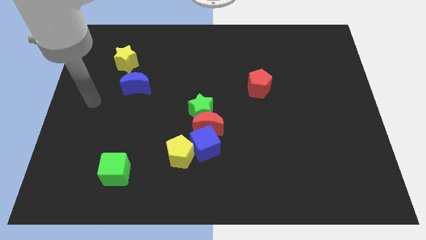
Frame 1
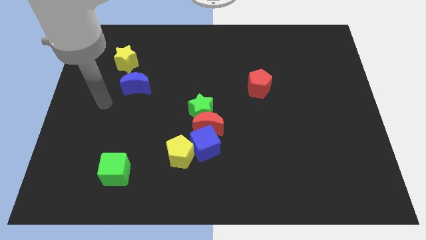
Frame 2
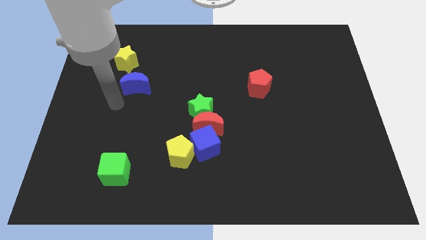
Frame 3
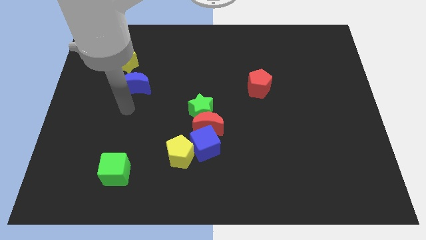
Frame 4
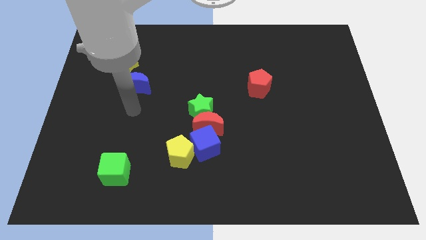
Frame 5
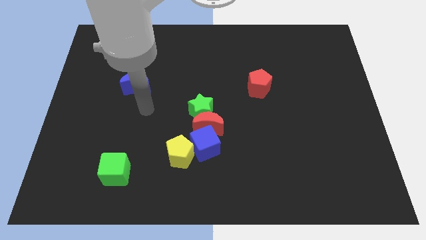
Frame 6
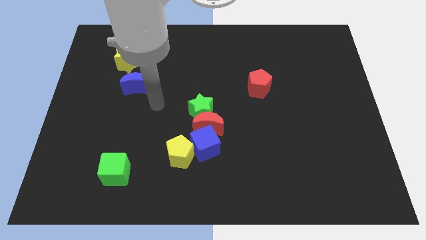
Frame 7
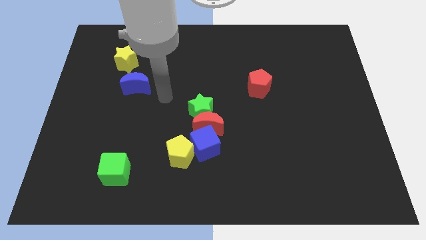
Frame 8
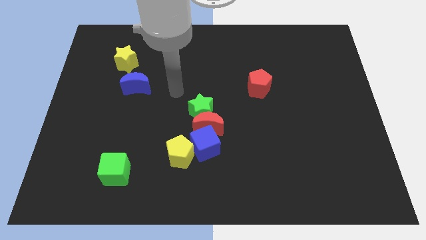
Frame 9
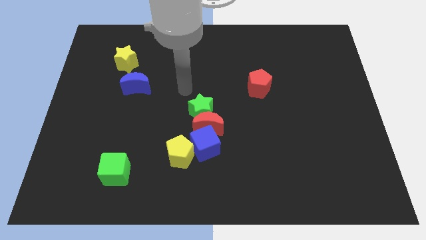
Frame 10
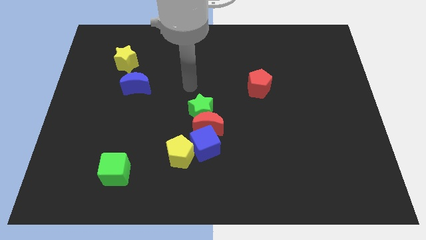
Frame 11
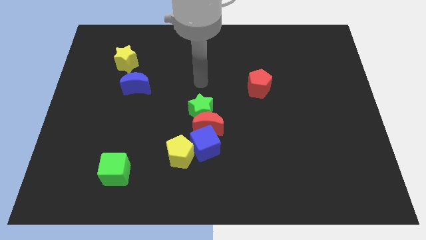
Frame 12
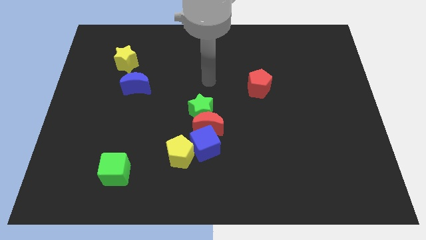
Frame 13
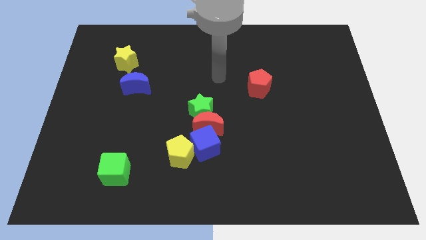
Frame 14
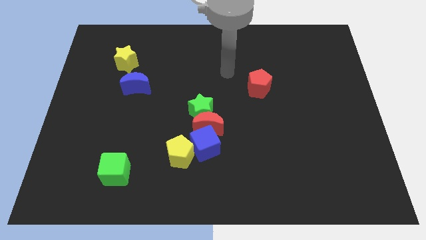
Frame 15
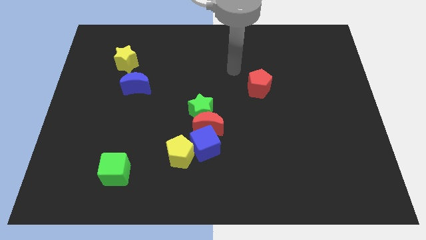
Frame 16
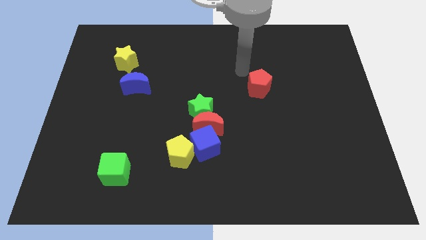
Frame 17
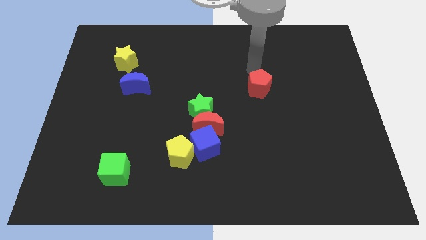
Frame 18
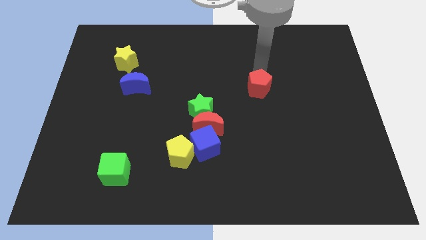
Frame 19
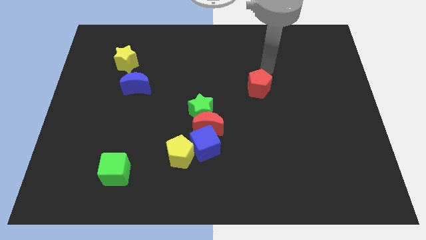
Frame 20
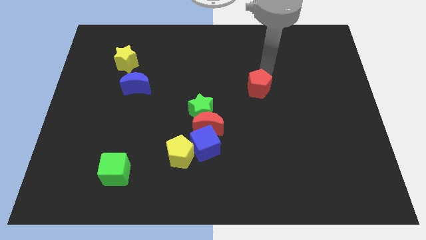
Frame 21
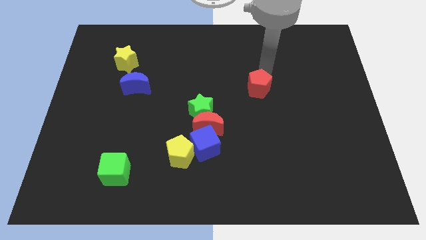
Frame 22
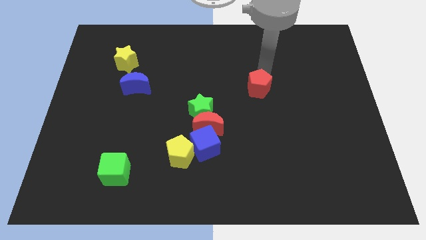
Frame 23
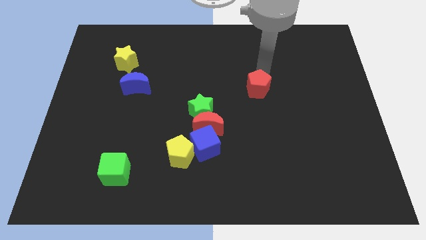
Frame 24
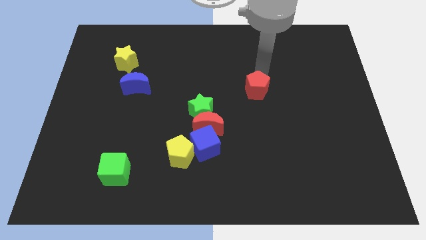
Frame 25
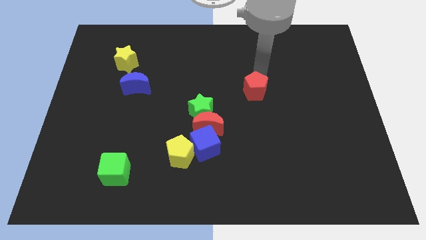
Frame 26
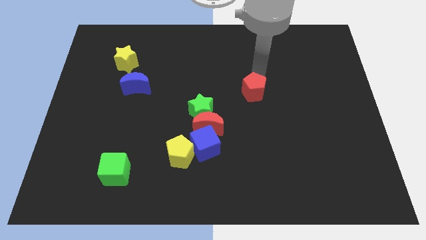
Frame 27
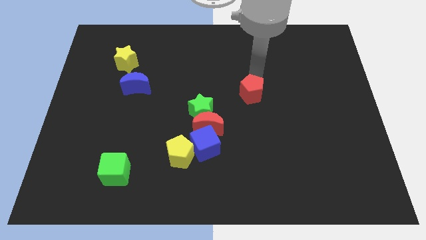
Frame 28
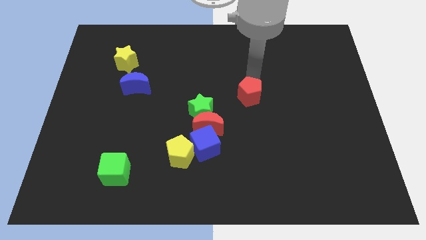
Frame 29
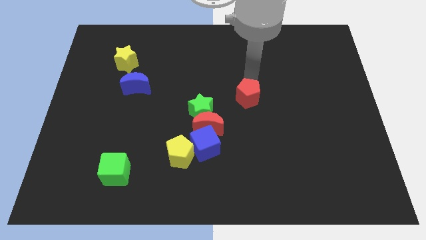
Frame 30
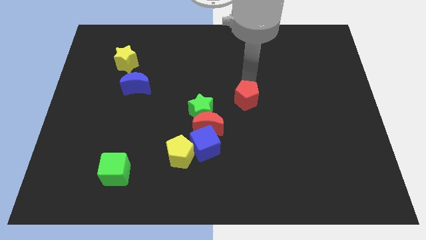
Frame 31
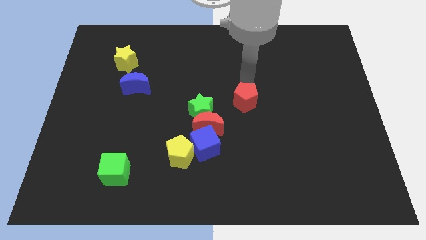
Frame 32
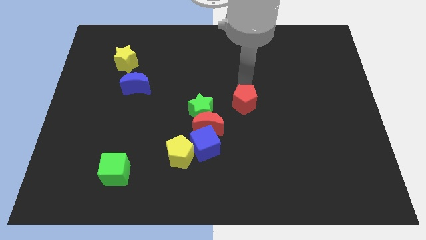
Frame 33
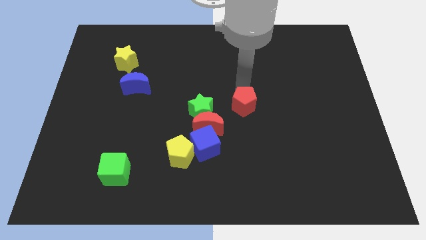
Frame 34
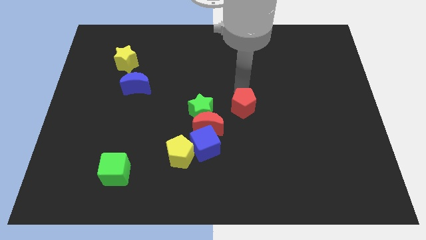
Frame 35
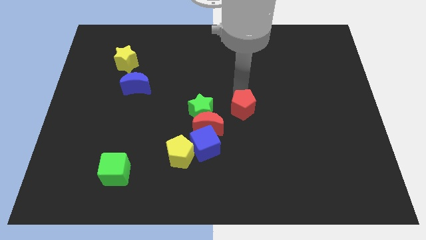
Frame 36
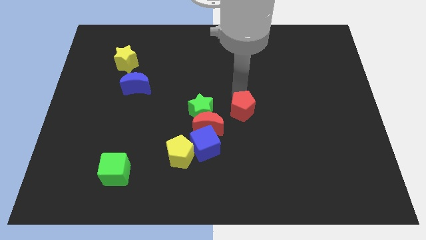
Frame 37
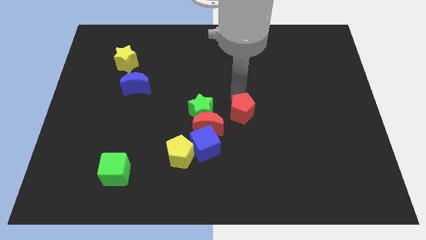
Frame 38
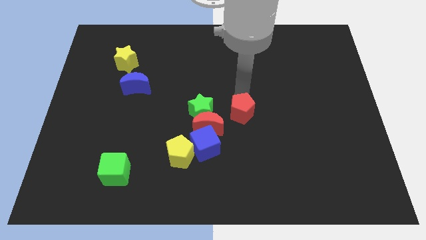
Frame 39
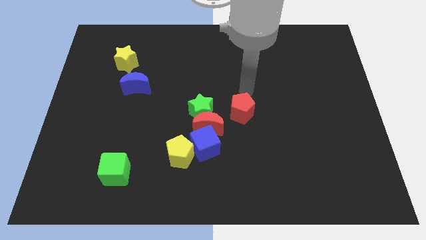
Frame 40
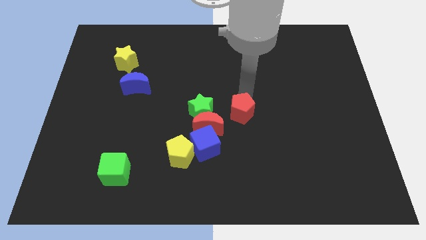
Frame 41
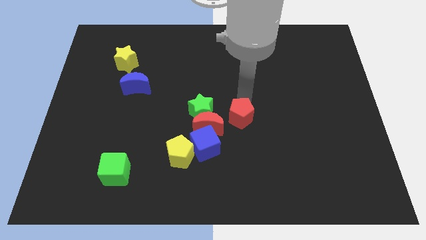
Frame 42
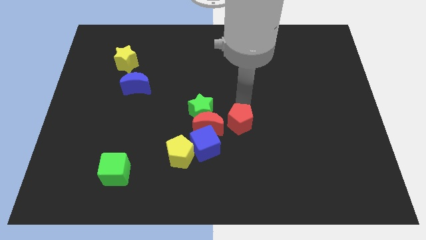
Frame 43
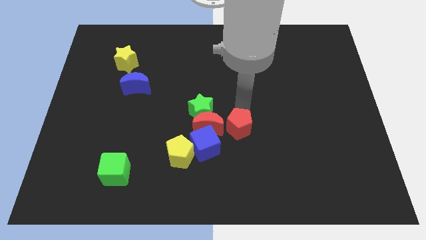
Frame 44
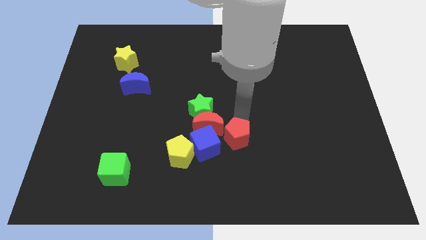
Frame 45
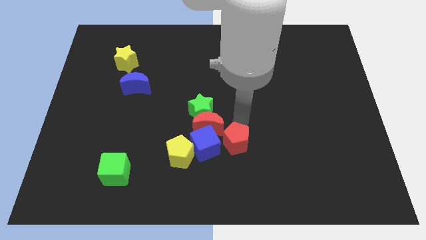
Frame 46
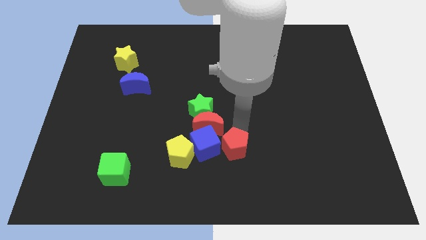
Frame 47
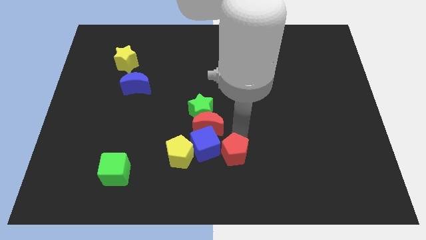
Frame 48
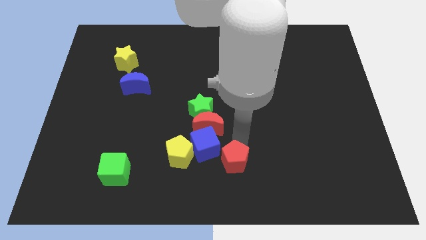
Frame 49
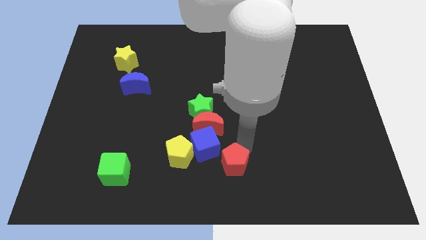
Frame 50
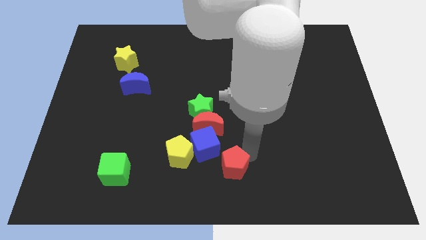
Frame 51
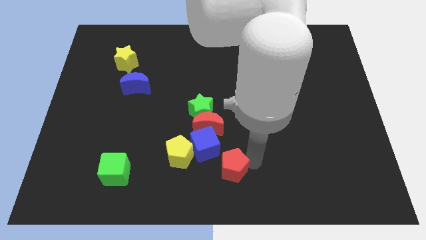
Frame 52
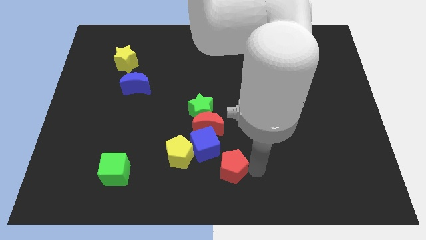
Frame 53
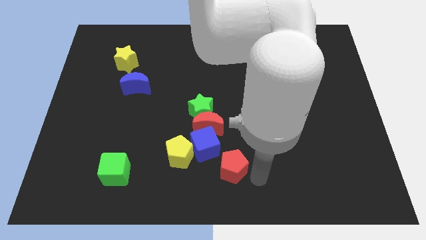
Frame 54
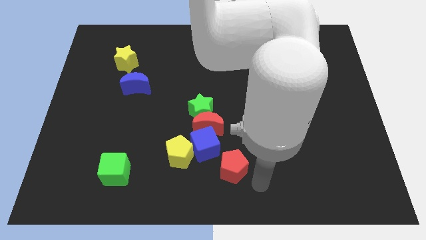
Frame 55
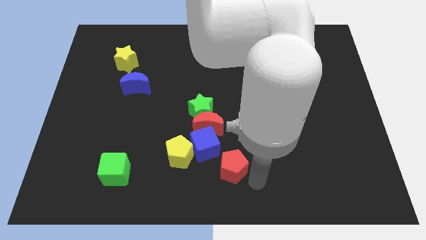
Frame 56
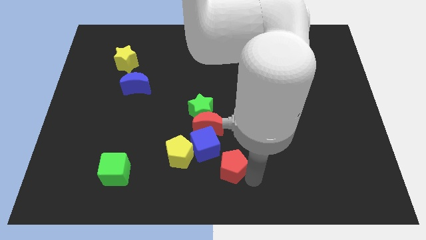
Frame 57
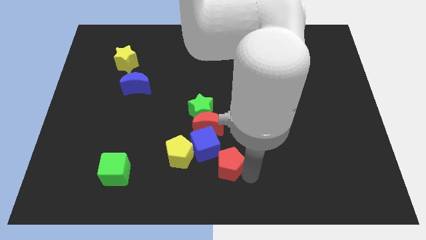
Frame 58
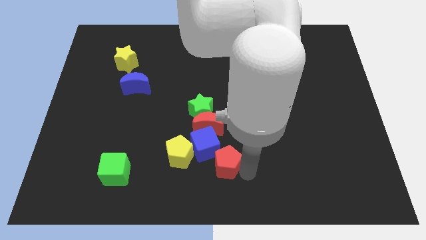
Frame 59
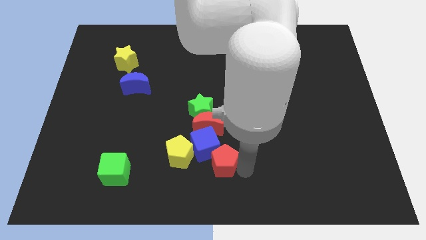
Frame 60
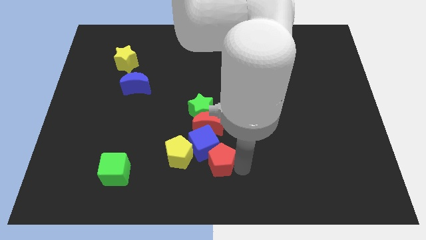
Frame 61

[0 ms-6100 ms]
move the red pentagon to the bottom of the green star
